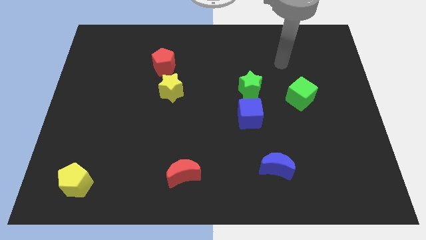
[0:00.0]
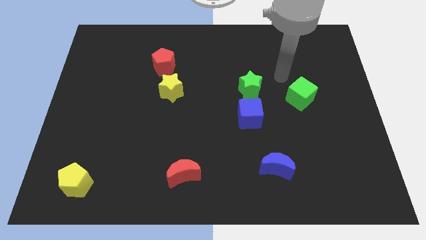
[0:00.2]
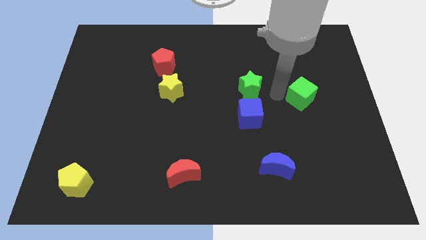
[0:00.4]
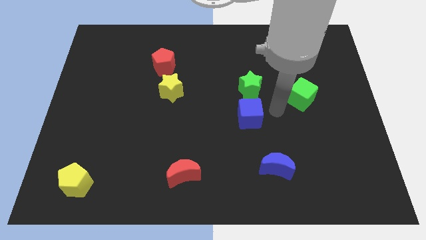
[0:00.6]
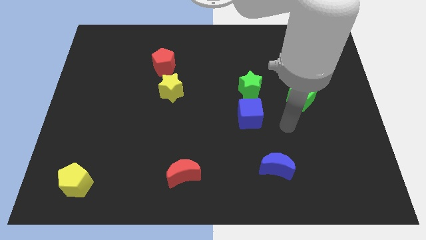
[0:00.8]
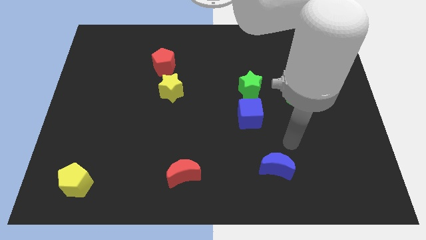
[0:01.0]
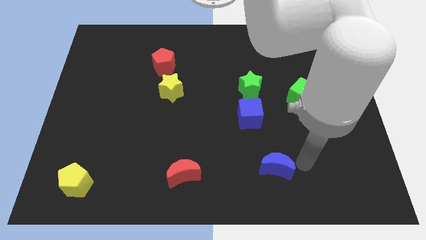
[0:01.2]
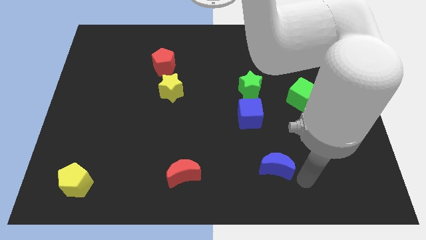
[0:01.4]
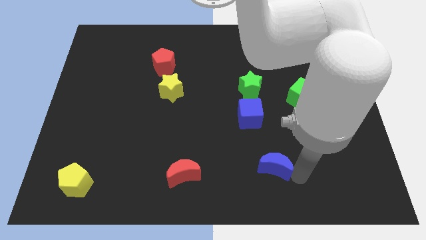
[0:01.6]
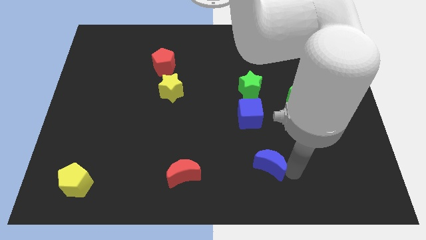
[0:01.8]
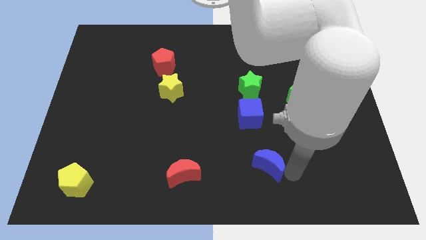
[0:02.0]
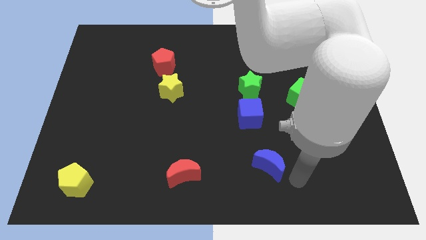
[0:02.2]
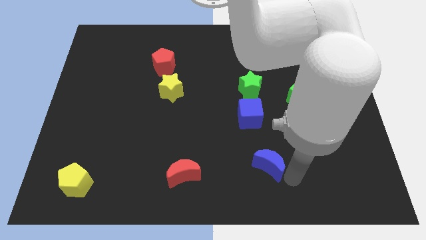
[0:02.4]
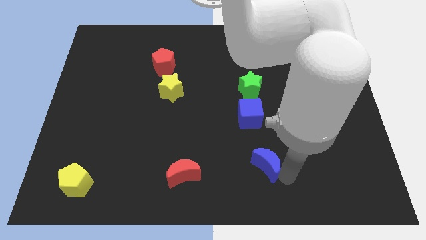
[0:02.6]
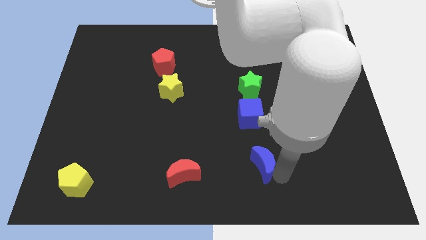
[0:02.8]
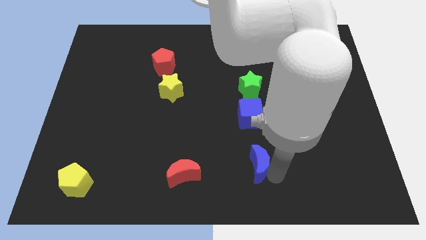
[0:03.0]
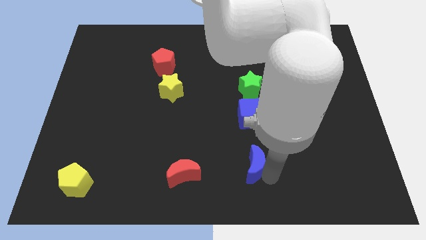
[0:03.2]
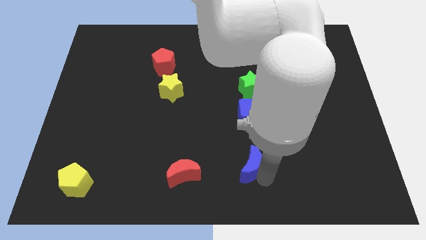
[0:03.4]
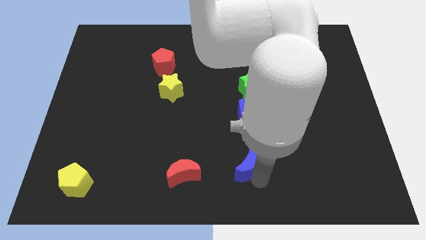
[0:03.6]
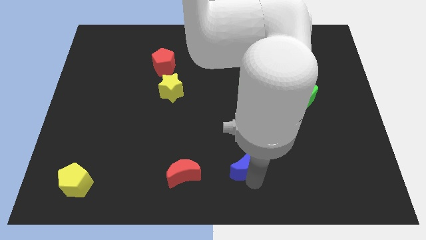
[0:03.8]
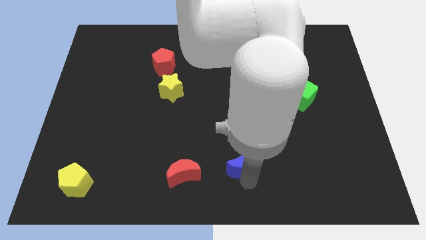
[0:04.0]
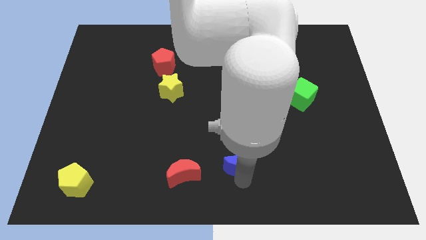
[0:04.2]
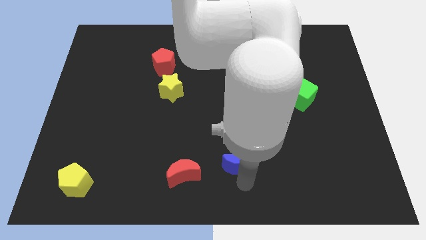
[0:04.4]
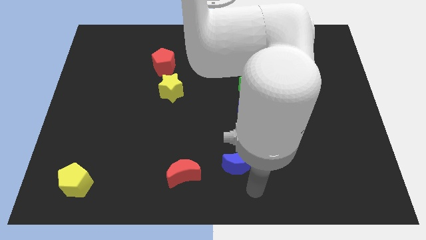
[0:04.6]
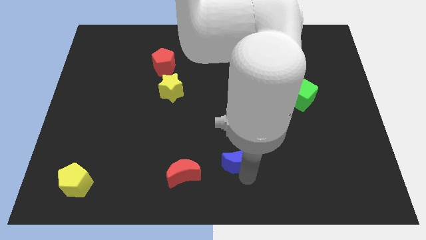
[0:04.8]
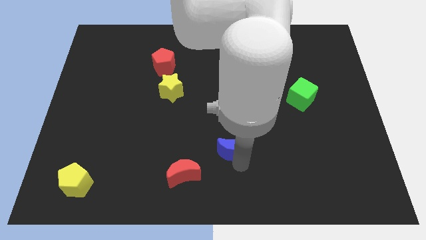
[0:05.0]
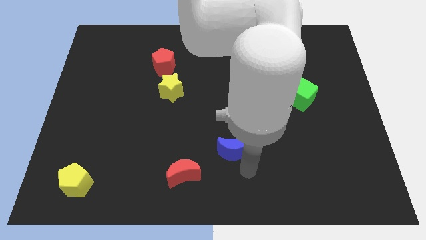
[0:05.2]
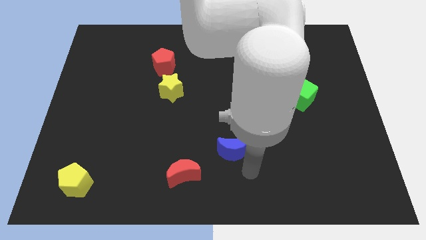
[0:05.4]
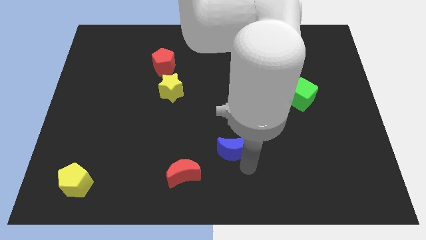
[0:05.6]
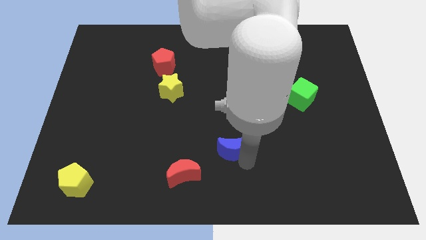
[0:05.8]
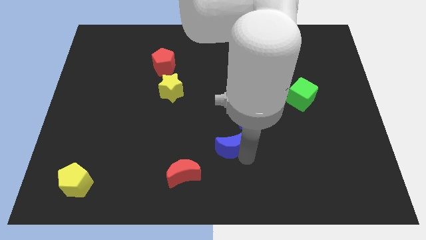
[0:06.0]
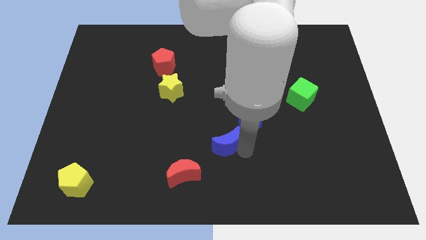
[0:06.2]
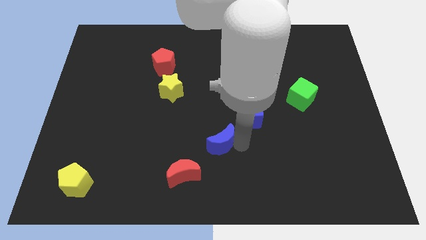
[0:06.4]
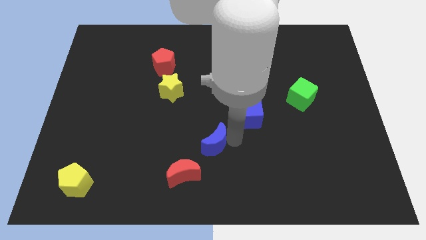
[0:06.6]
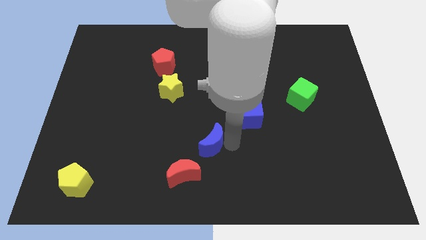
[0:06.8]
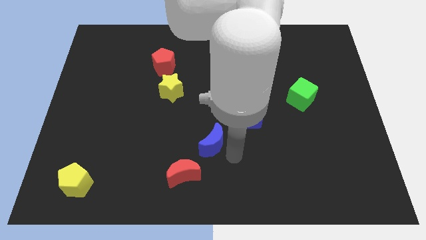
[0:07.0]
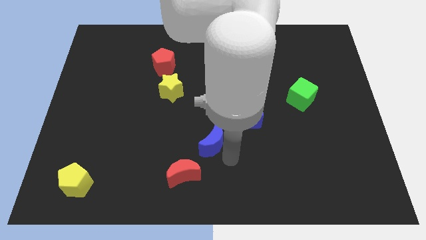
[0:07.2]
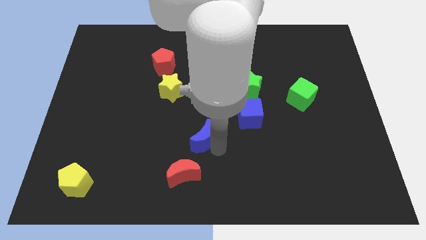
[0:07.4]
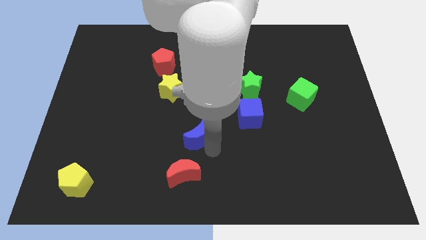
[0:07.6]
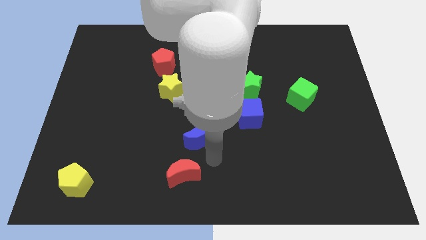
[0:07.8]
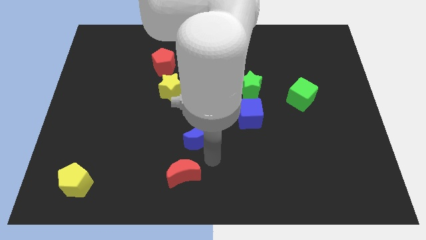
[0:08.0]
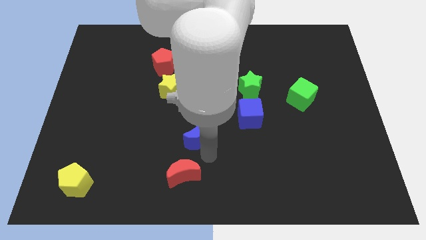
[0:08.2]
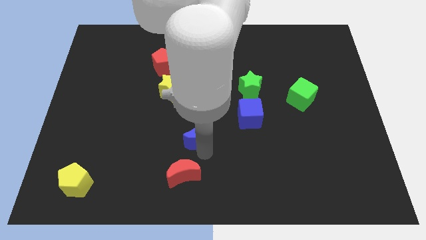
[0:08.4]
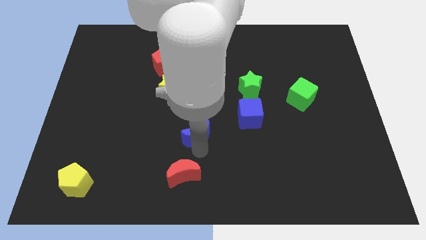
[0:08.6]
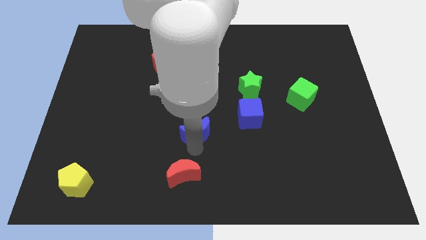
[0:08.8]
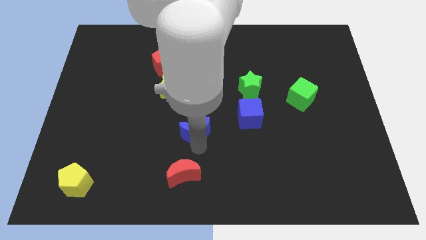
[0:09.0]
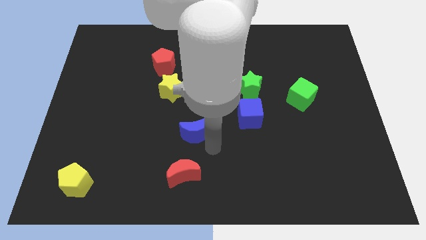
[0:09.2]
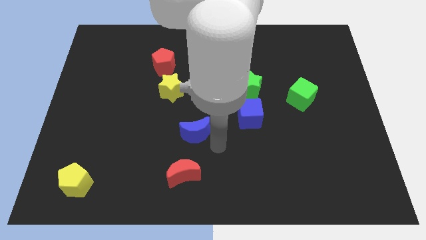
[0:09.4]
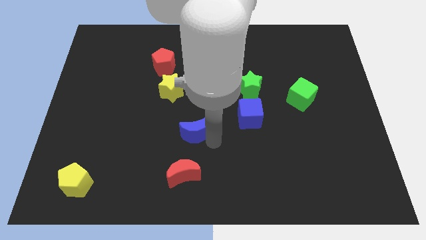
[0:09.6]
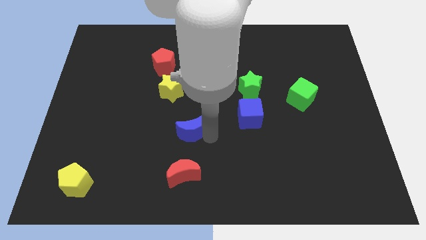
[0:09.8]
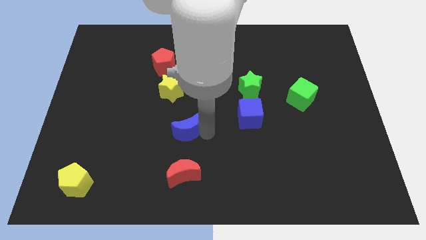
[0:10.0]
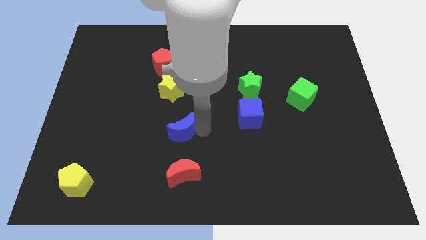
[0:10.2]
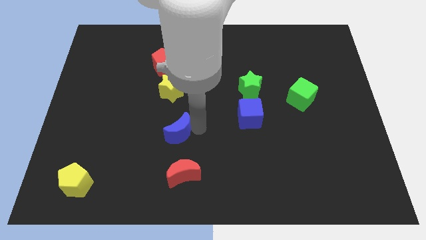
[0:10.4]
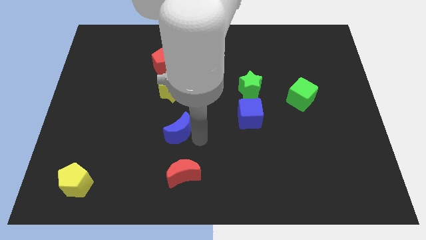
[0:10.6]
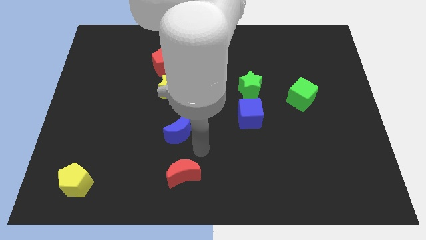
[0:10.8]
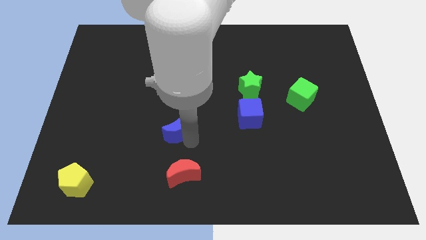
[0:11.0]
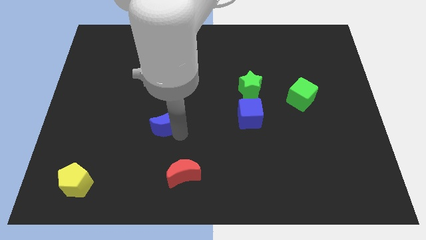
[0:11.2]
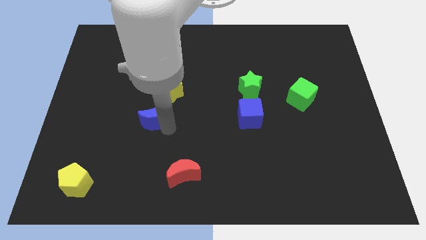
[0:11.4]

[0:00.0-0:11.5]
put the blue moon to the bottom left of the yellow star

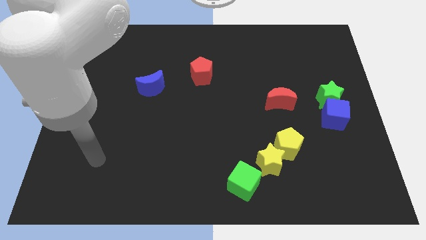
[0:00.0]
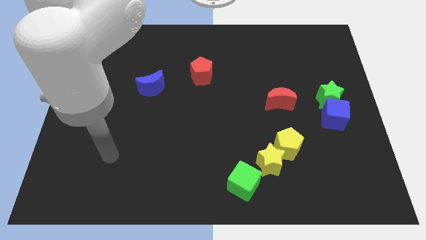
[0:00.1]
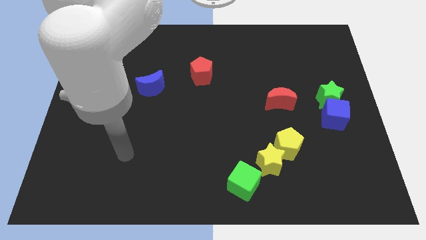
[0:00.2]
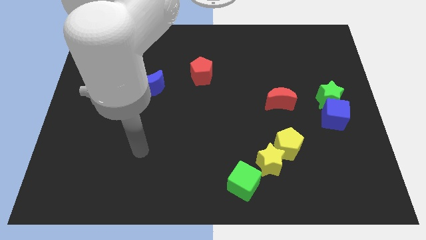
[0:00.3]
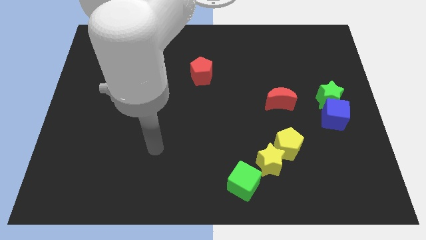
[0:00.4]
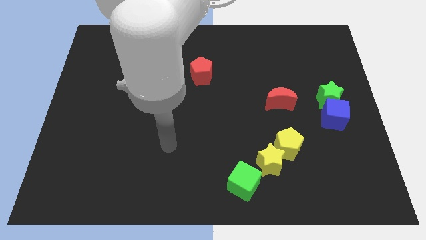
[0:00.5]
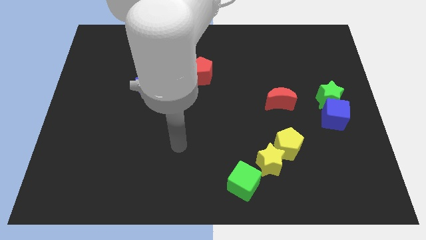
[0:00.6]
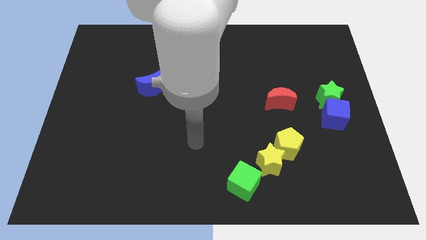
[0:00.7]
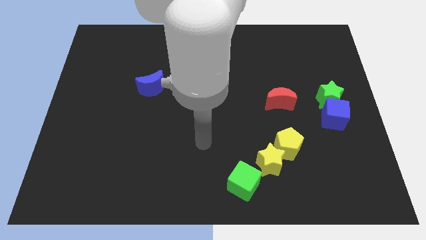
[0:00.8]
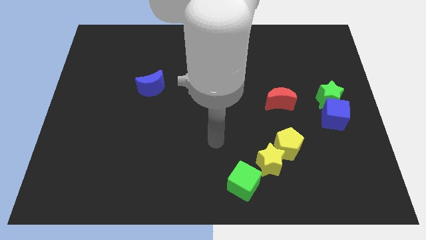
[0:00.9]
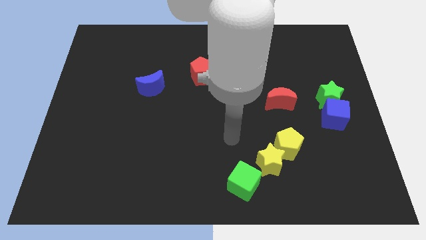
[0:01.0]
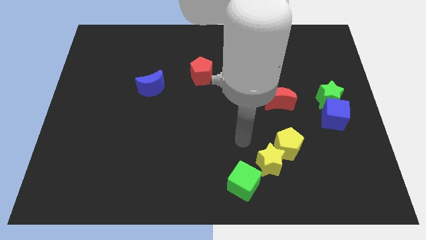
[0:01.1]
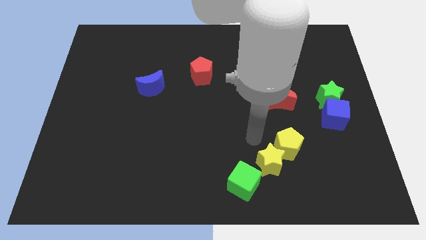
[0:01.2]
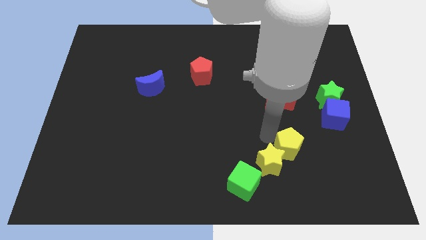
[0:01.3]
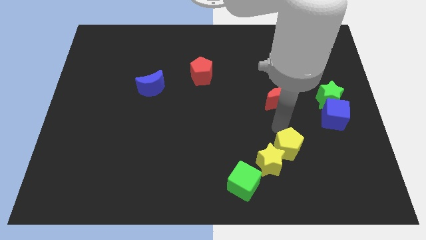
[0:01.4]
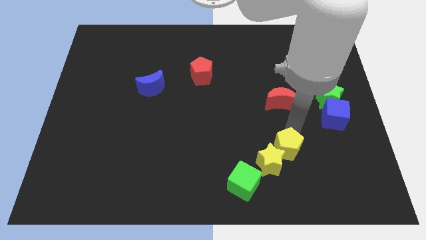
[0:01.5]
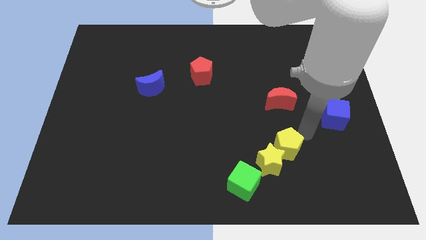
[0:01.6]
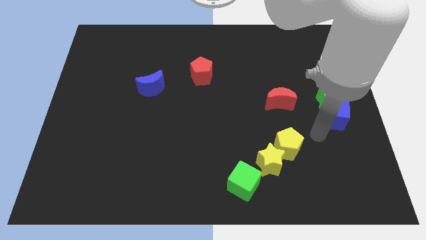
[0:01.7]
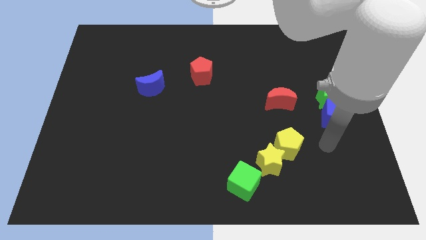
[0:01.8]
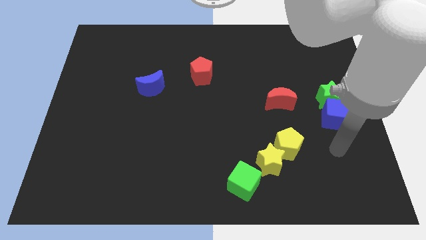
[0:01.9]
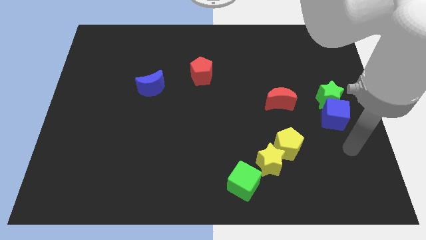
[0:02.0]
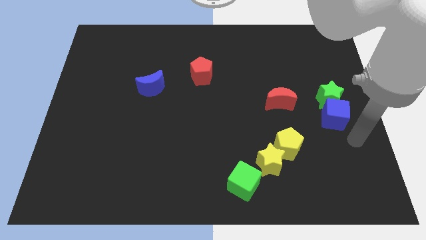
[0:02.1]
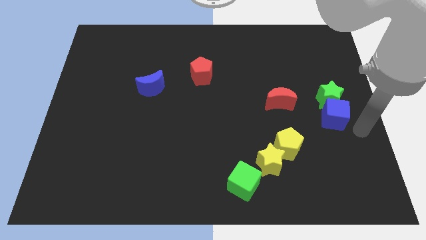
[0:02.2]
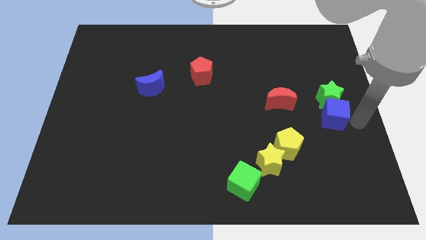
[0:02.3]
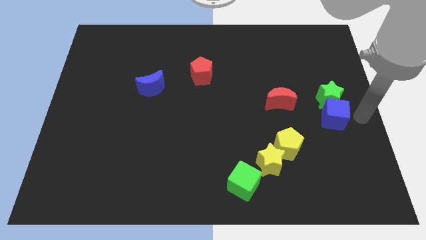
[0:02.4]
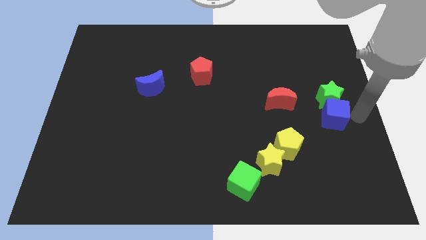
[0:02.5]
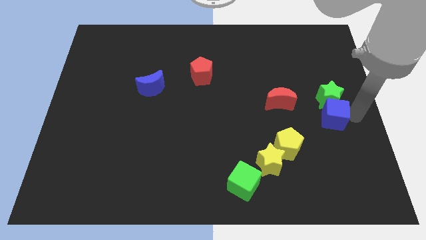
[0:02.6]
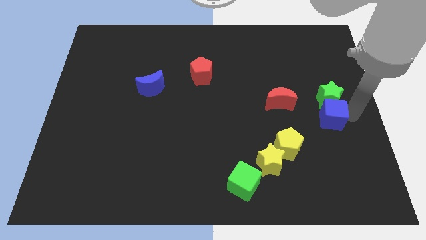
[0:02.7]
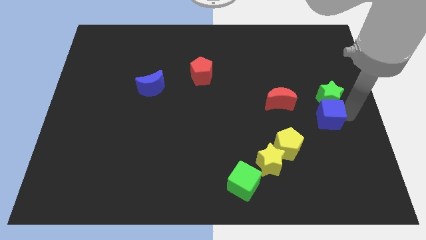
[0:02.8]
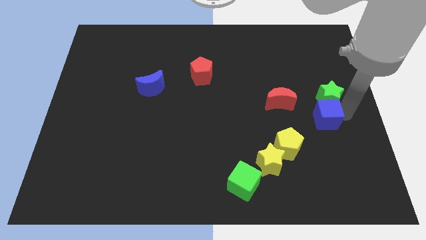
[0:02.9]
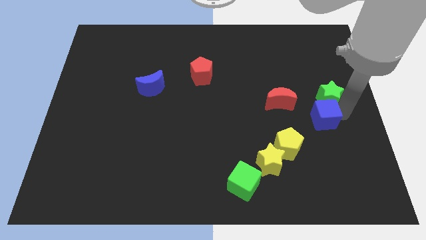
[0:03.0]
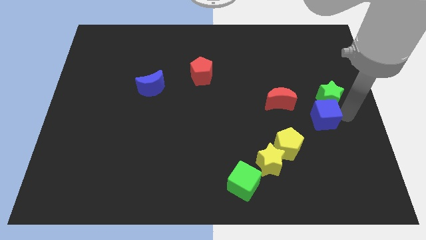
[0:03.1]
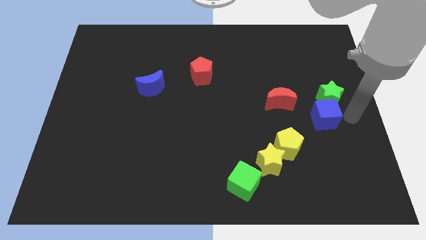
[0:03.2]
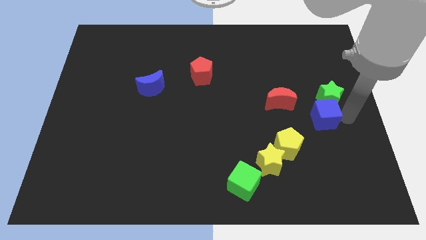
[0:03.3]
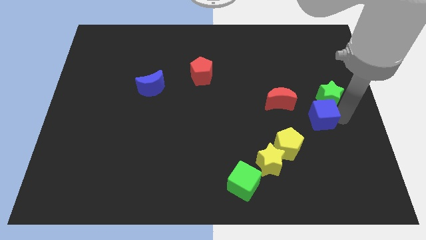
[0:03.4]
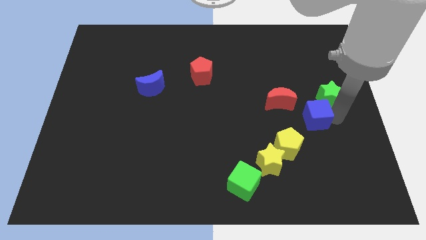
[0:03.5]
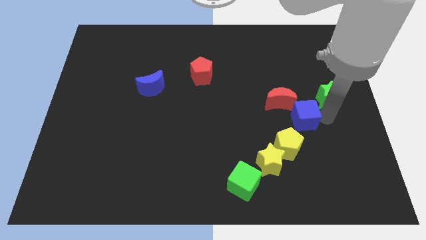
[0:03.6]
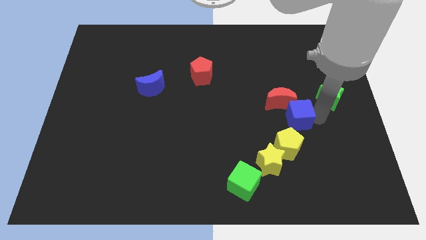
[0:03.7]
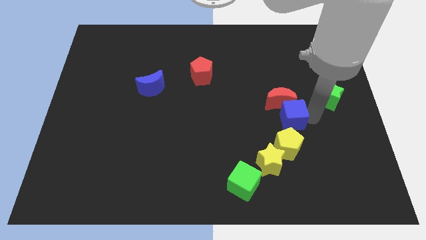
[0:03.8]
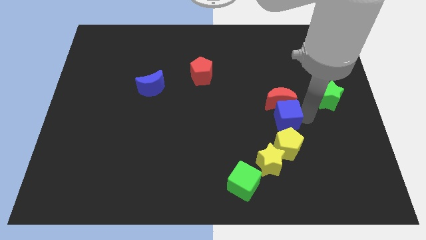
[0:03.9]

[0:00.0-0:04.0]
put the blue cube to the bottom left side of the red moon
